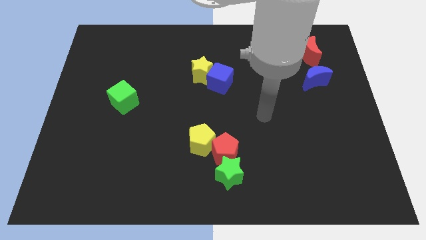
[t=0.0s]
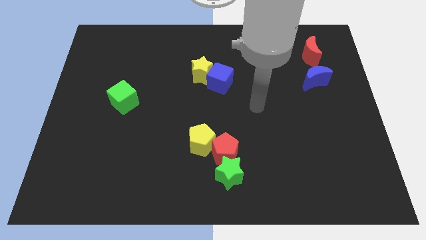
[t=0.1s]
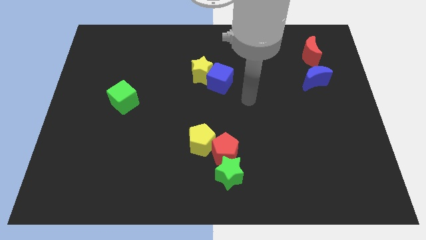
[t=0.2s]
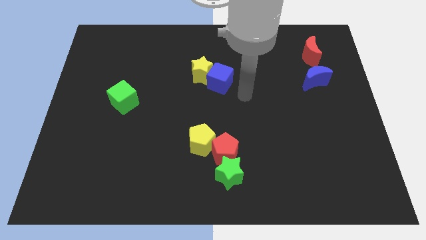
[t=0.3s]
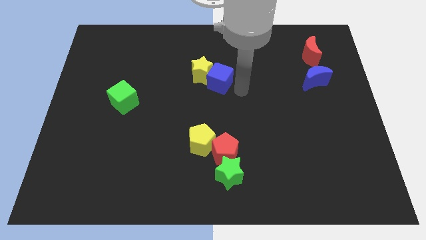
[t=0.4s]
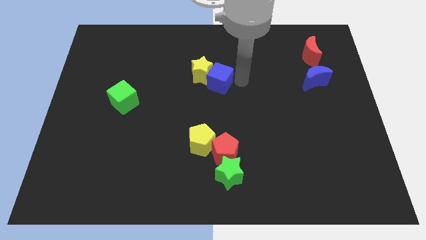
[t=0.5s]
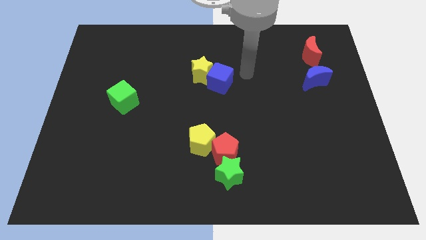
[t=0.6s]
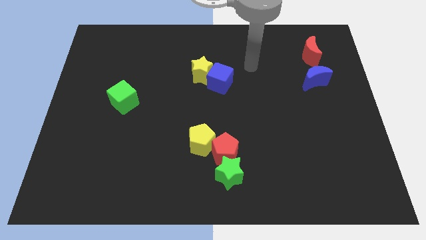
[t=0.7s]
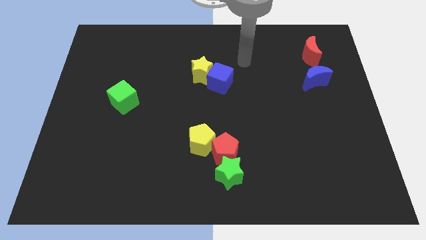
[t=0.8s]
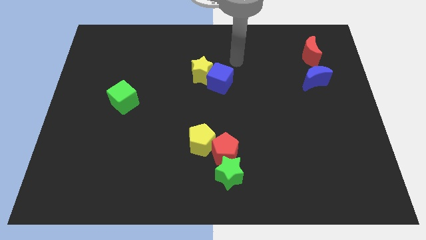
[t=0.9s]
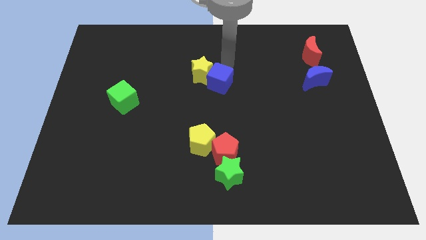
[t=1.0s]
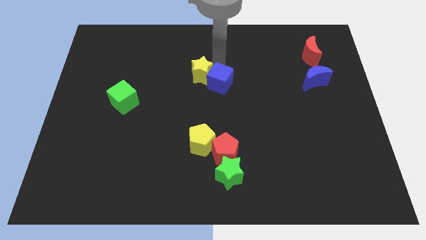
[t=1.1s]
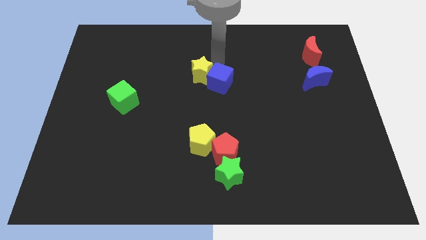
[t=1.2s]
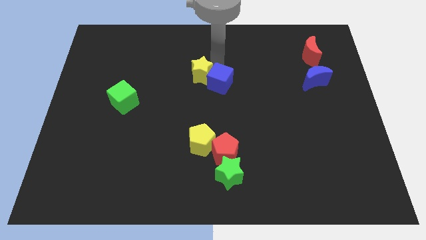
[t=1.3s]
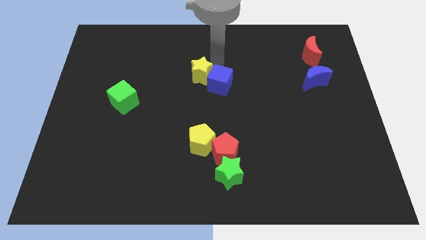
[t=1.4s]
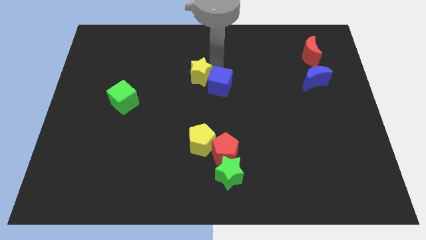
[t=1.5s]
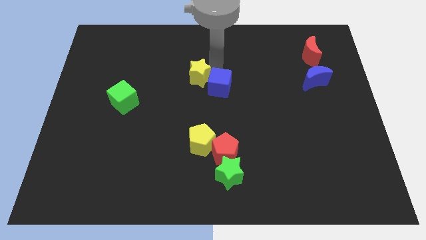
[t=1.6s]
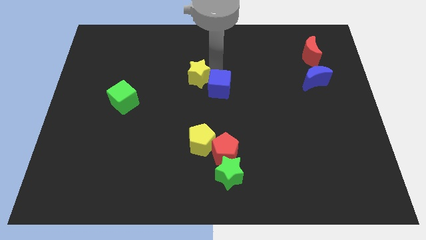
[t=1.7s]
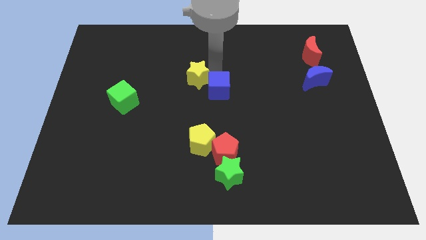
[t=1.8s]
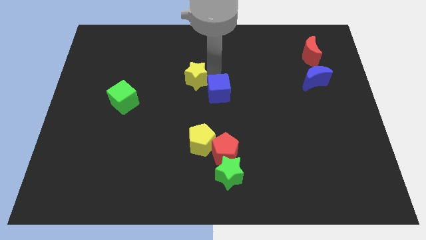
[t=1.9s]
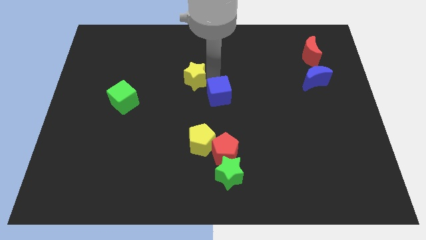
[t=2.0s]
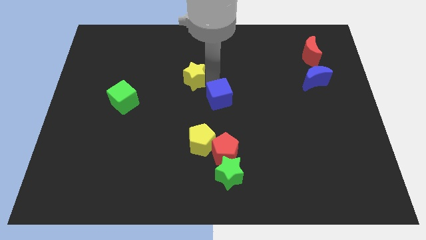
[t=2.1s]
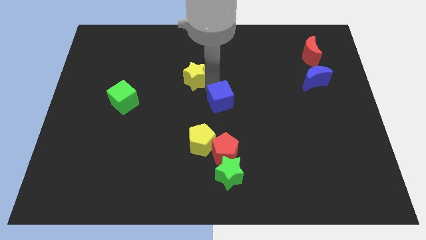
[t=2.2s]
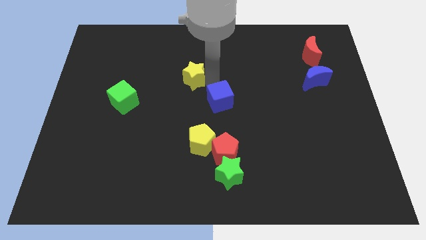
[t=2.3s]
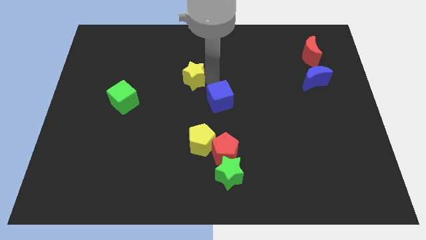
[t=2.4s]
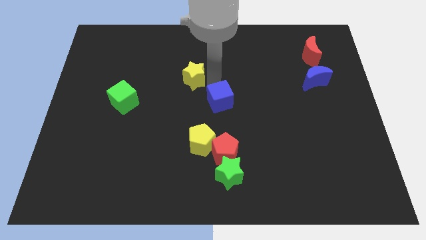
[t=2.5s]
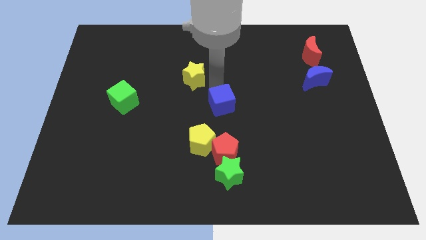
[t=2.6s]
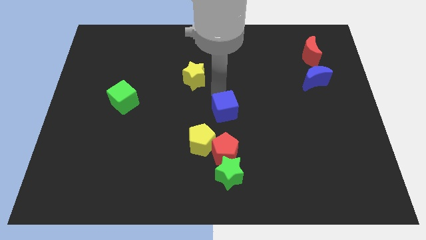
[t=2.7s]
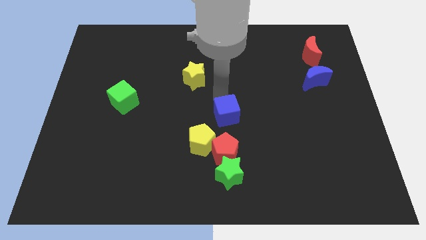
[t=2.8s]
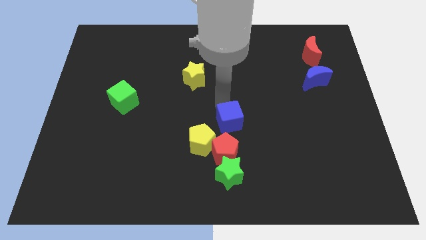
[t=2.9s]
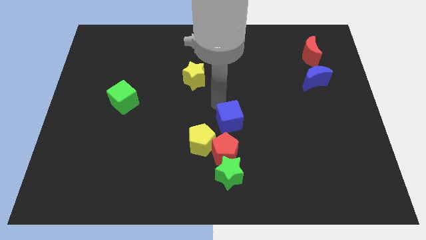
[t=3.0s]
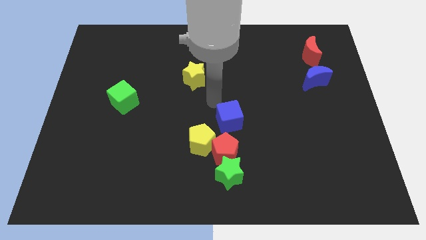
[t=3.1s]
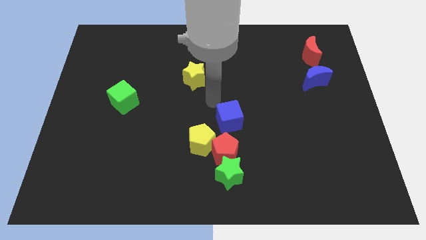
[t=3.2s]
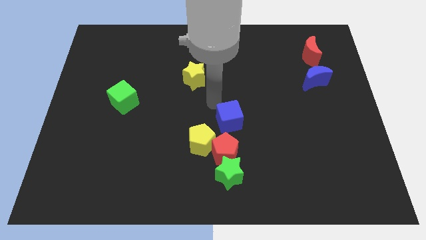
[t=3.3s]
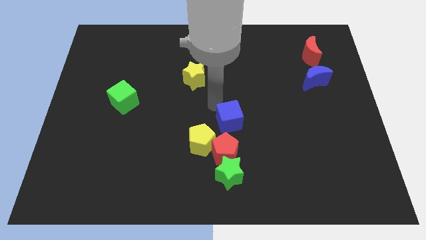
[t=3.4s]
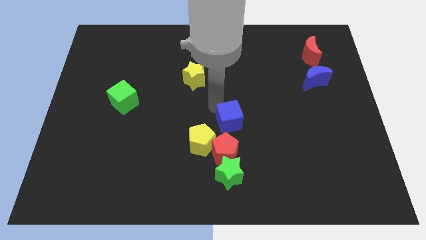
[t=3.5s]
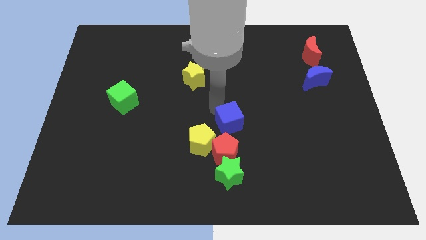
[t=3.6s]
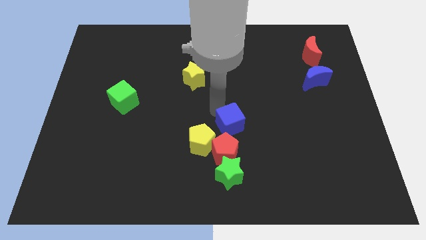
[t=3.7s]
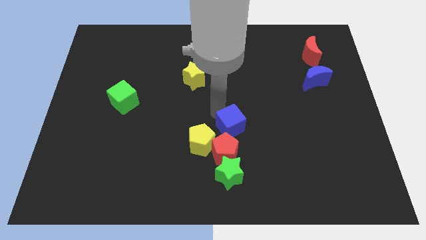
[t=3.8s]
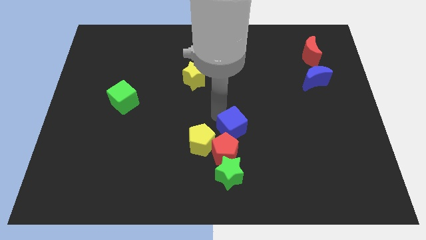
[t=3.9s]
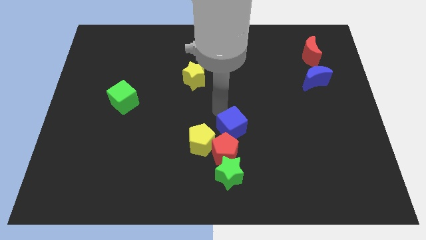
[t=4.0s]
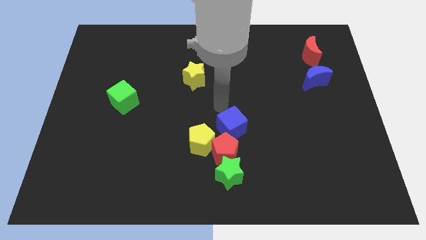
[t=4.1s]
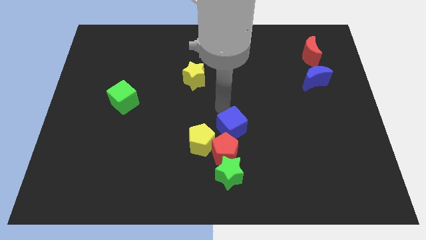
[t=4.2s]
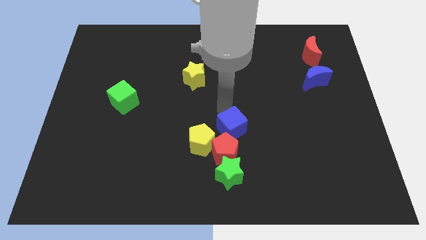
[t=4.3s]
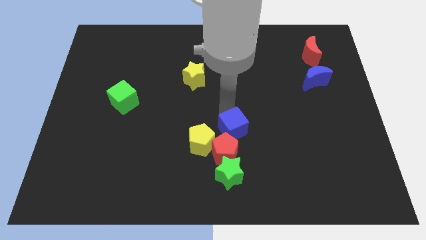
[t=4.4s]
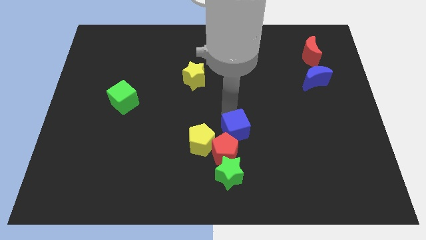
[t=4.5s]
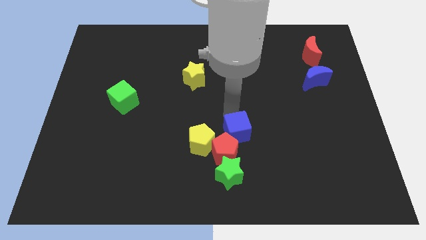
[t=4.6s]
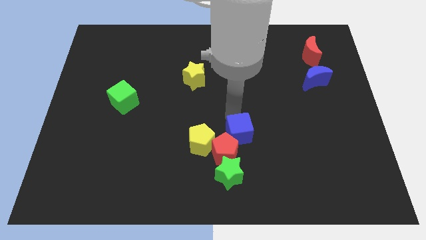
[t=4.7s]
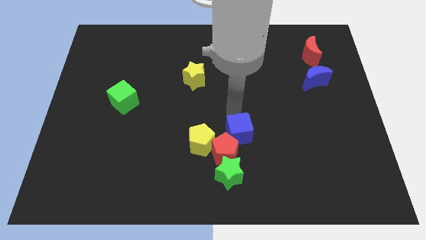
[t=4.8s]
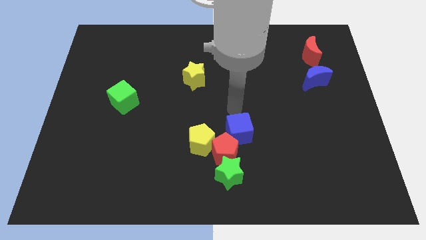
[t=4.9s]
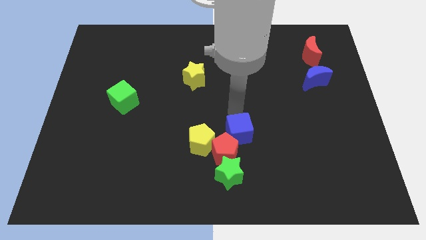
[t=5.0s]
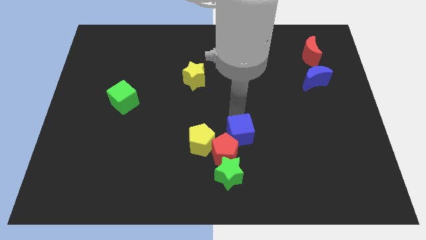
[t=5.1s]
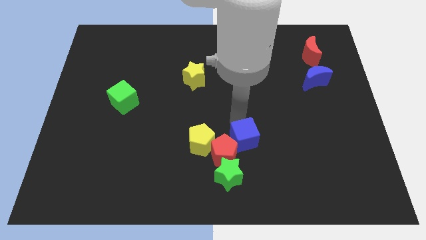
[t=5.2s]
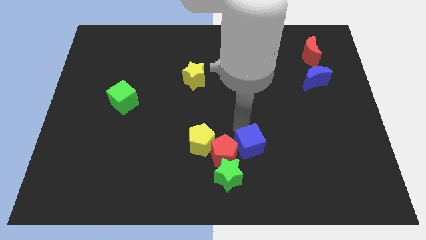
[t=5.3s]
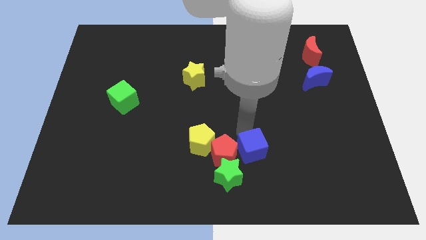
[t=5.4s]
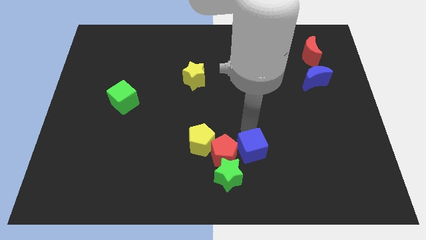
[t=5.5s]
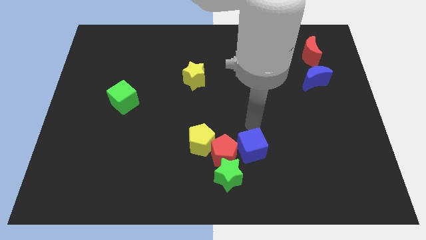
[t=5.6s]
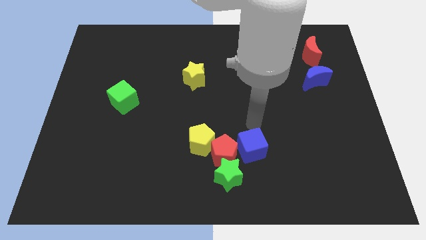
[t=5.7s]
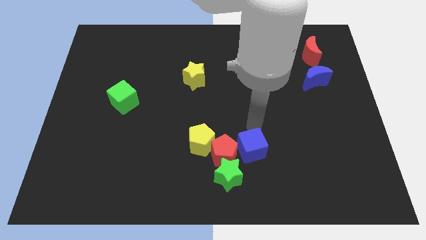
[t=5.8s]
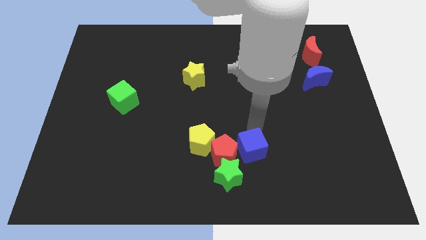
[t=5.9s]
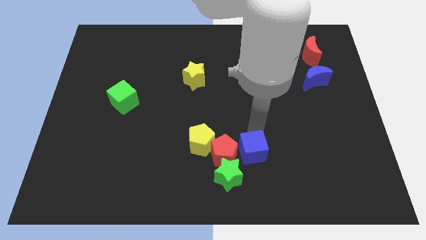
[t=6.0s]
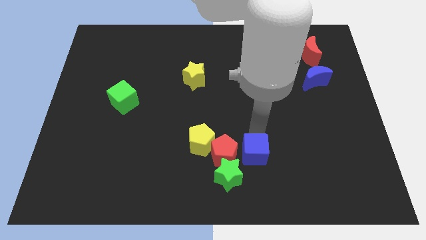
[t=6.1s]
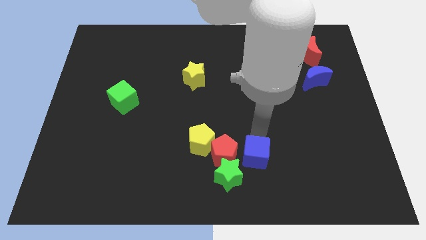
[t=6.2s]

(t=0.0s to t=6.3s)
push the blue cube to the bottom right side of the red pentagon

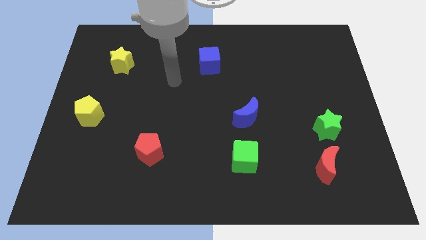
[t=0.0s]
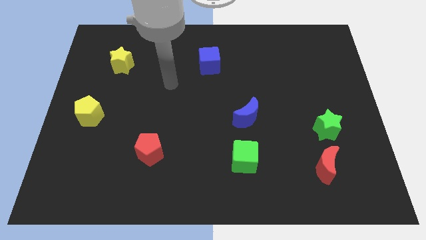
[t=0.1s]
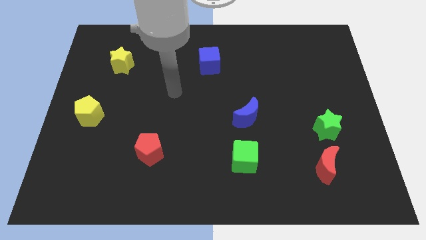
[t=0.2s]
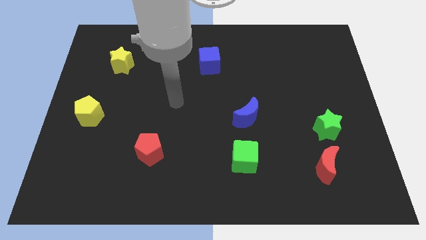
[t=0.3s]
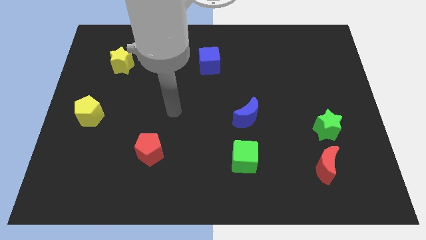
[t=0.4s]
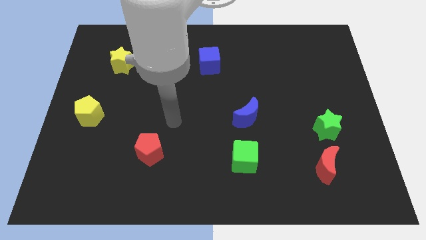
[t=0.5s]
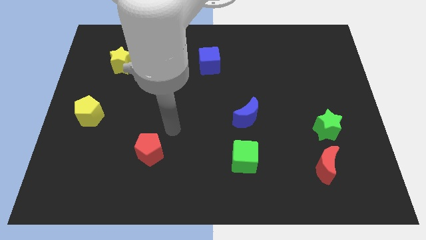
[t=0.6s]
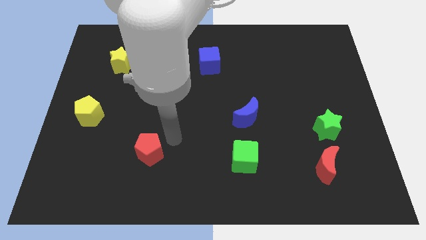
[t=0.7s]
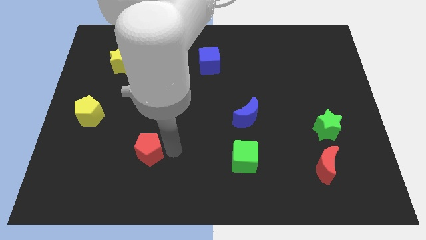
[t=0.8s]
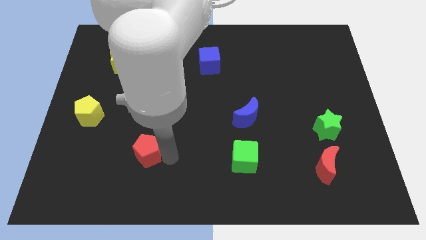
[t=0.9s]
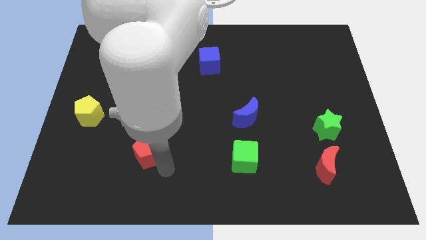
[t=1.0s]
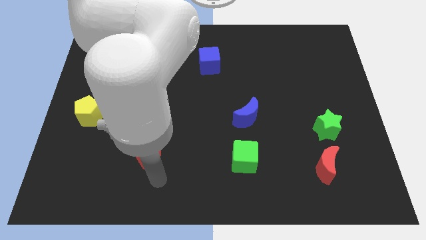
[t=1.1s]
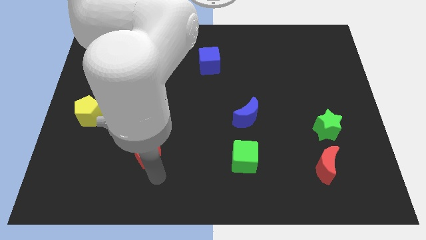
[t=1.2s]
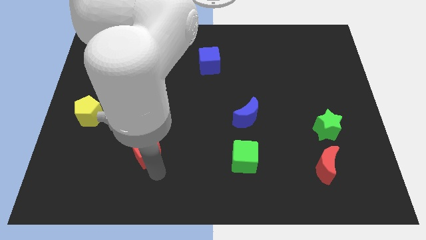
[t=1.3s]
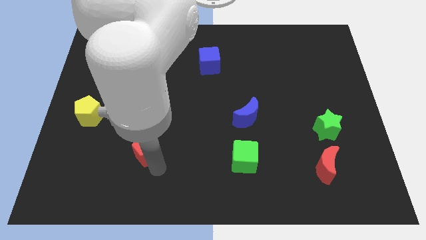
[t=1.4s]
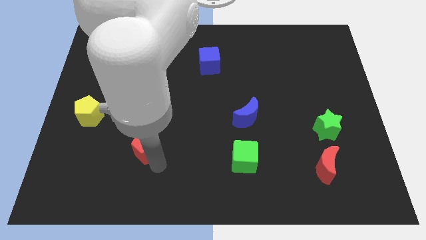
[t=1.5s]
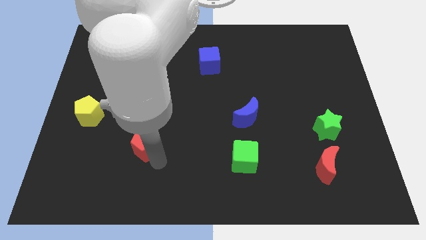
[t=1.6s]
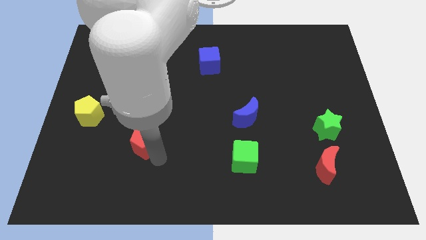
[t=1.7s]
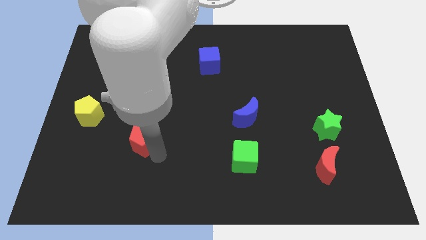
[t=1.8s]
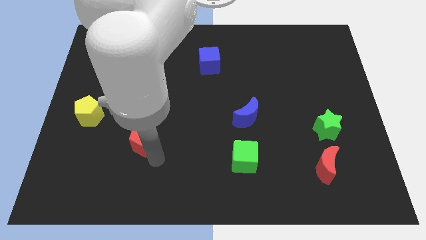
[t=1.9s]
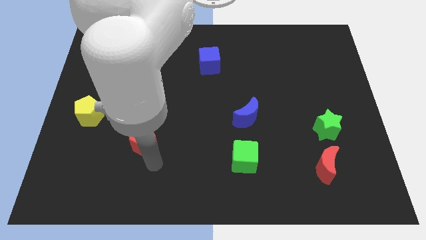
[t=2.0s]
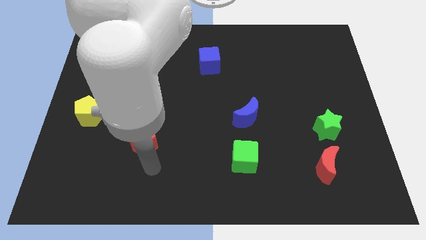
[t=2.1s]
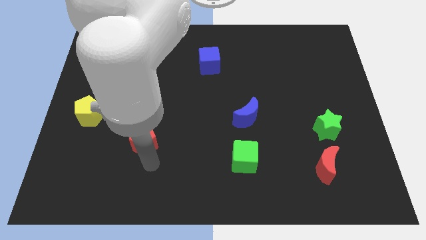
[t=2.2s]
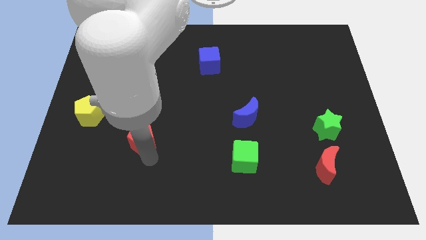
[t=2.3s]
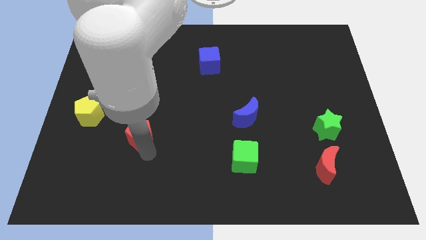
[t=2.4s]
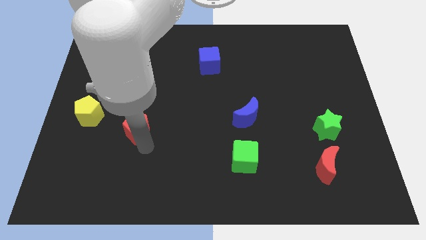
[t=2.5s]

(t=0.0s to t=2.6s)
move the red pentagon just right of the yellow pentagon
